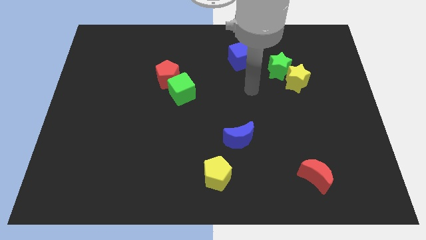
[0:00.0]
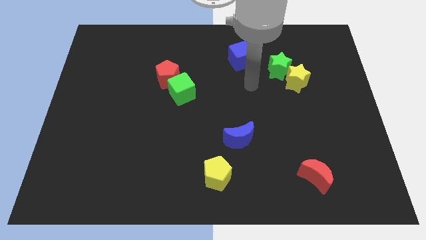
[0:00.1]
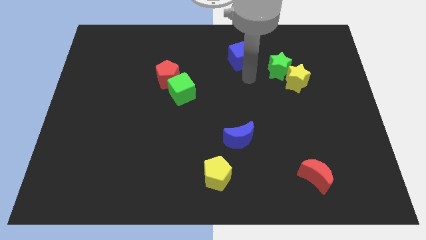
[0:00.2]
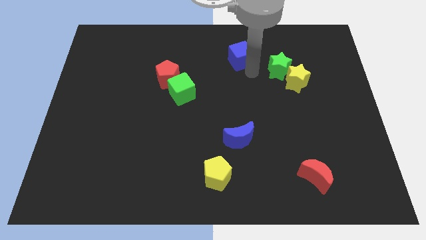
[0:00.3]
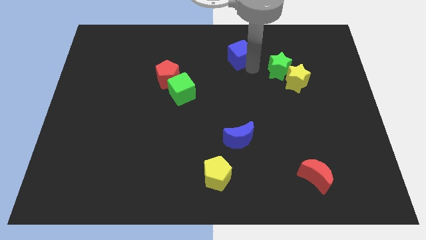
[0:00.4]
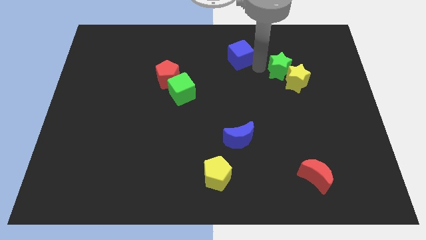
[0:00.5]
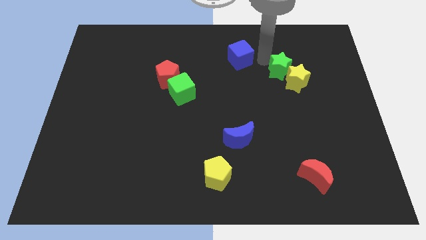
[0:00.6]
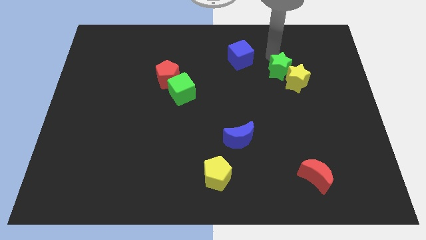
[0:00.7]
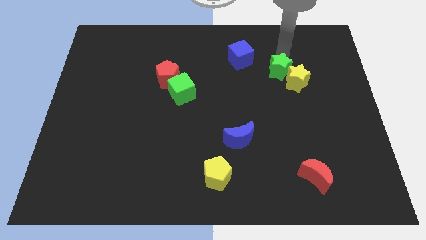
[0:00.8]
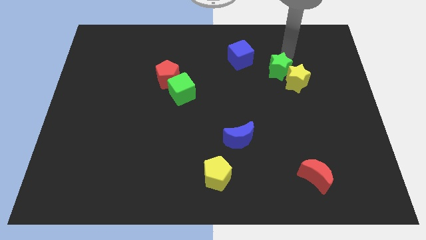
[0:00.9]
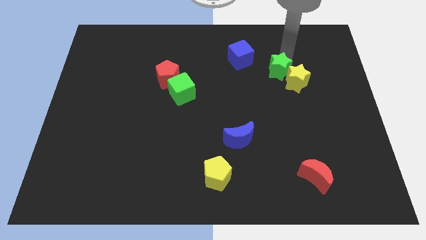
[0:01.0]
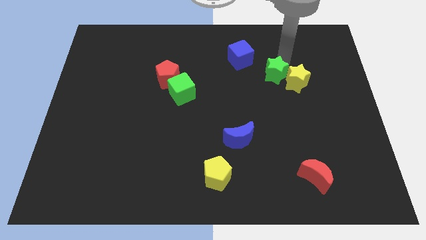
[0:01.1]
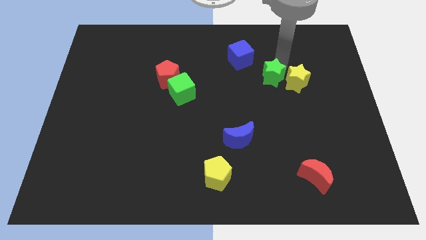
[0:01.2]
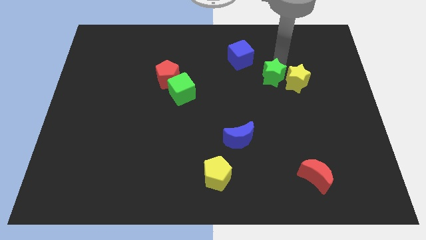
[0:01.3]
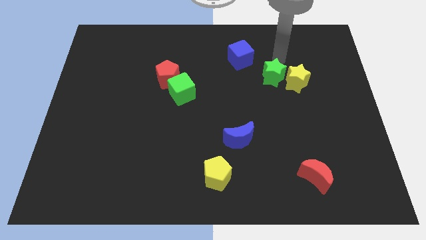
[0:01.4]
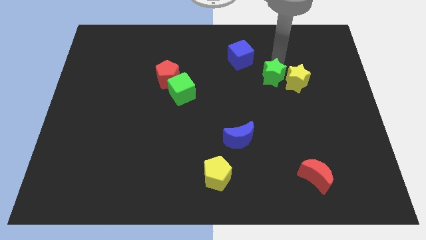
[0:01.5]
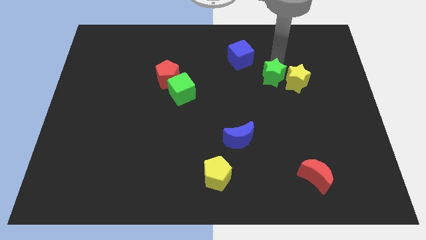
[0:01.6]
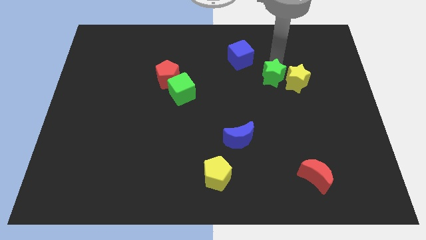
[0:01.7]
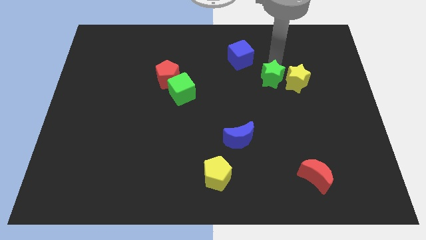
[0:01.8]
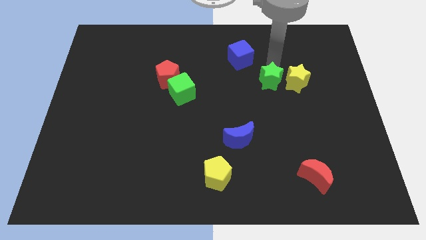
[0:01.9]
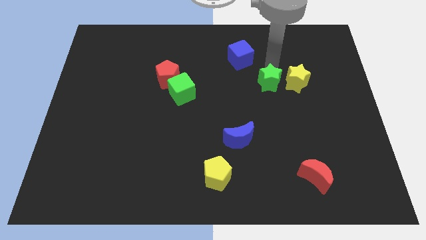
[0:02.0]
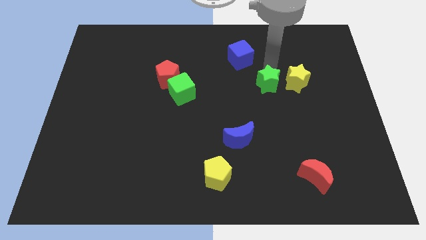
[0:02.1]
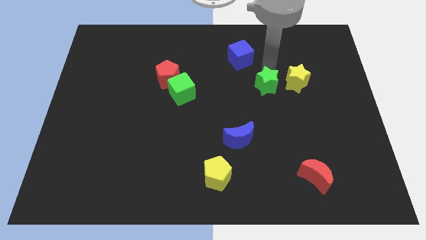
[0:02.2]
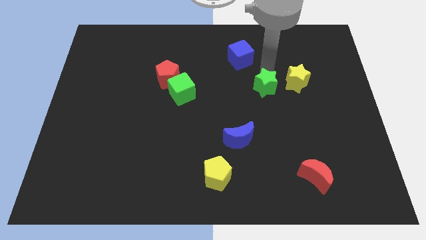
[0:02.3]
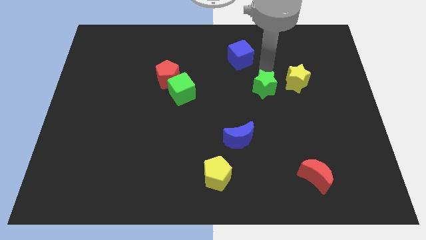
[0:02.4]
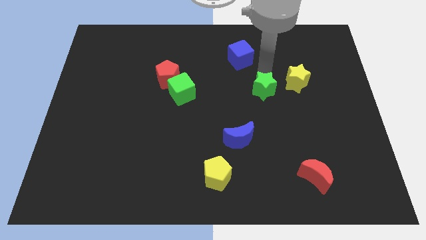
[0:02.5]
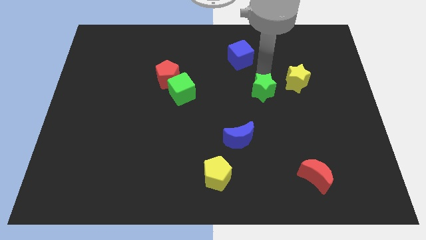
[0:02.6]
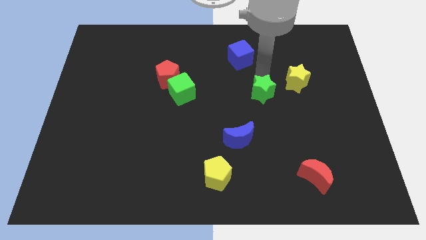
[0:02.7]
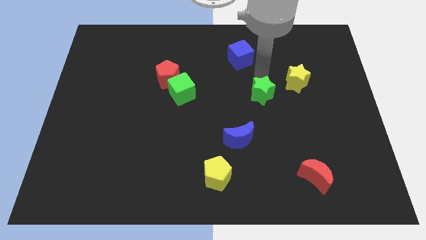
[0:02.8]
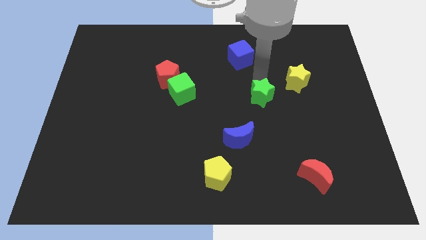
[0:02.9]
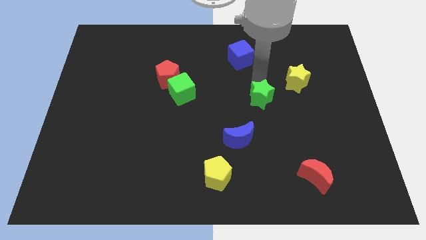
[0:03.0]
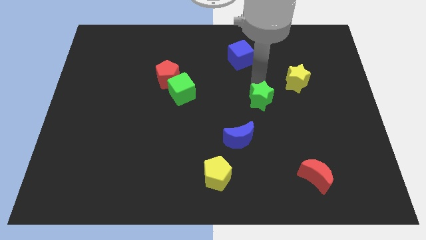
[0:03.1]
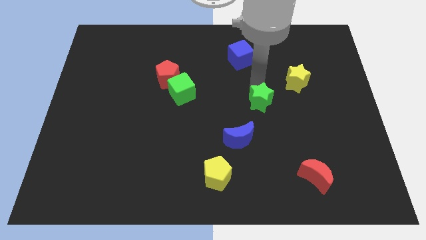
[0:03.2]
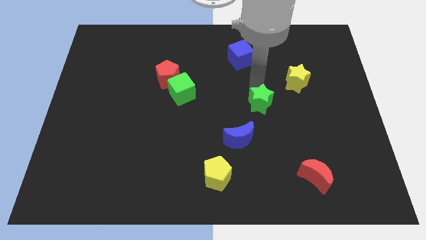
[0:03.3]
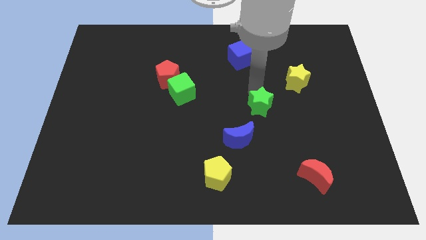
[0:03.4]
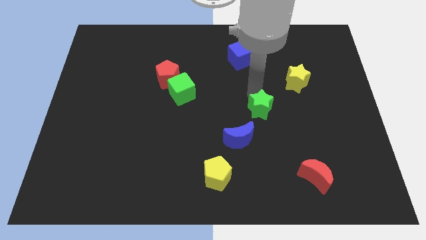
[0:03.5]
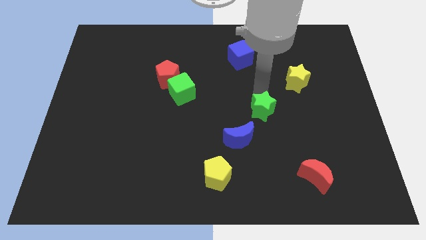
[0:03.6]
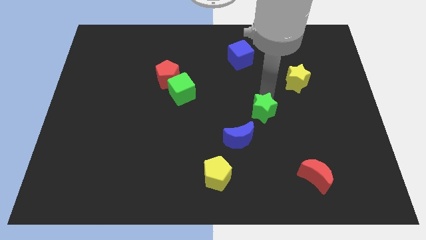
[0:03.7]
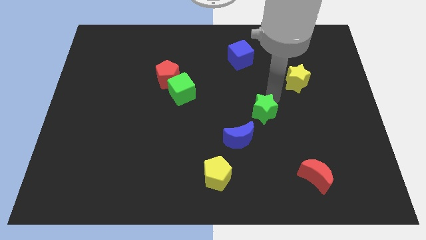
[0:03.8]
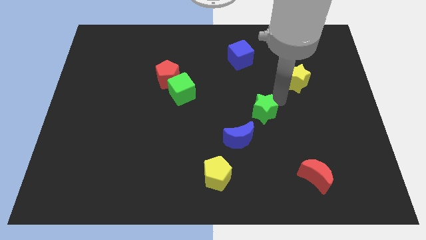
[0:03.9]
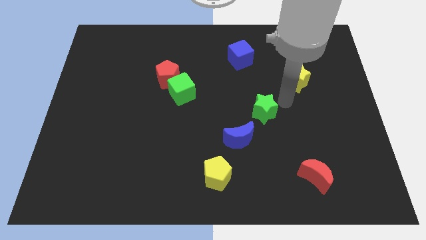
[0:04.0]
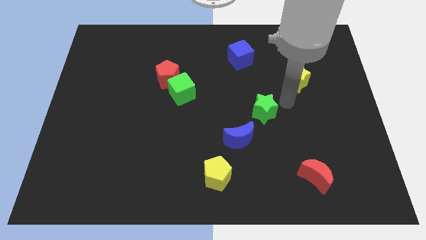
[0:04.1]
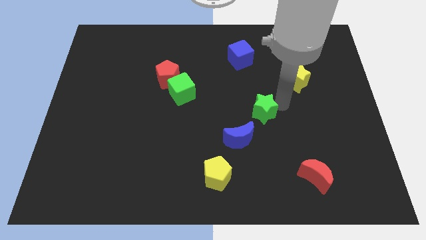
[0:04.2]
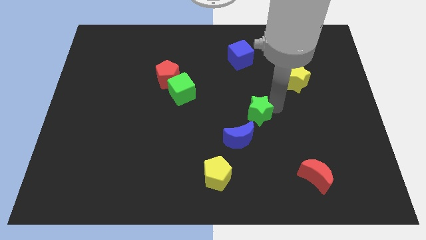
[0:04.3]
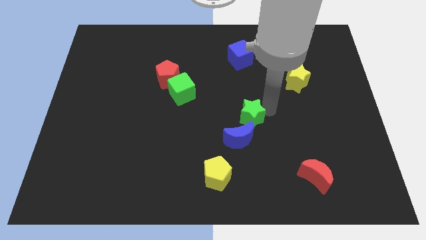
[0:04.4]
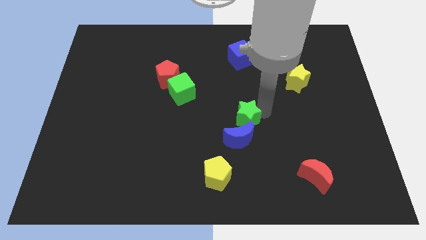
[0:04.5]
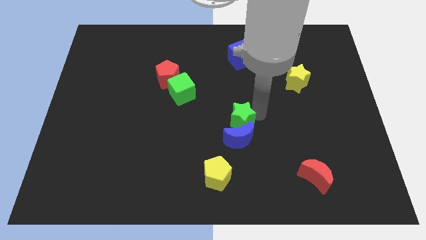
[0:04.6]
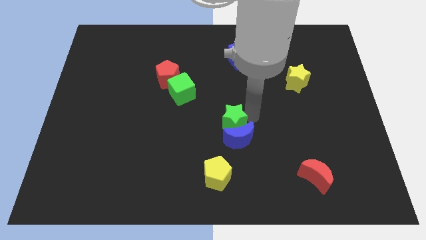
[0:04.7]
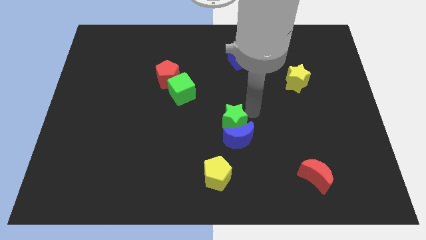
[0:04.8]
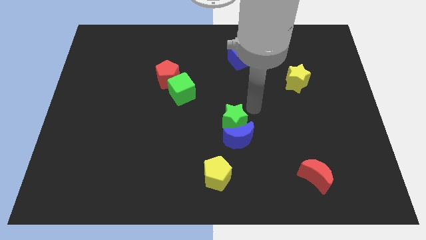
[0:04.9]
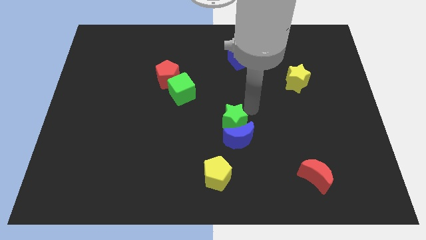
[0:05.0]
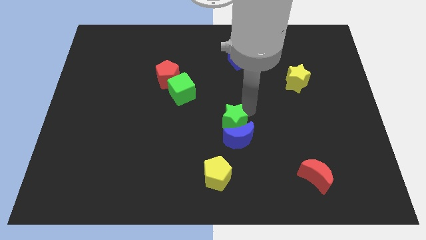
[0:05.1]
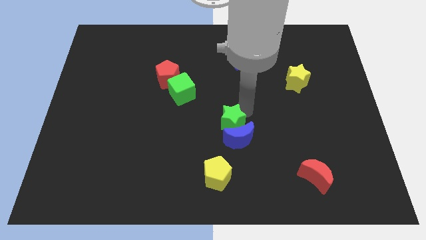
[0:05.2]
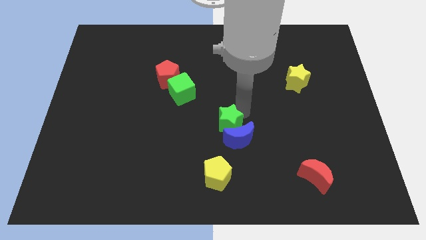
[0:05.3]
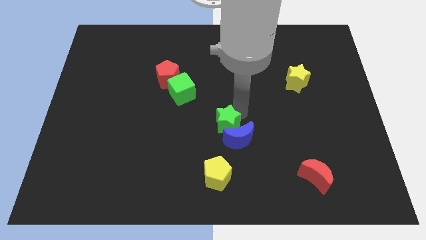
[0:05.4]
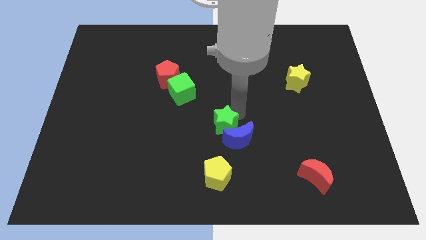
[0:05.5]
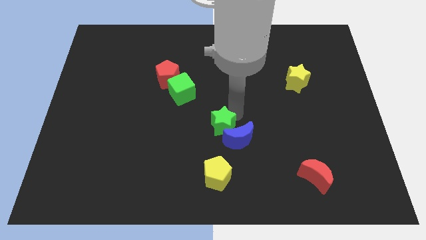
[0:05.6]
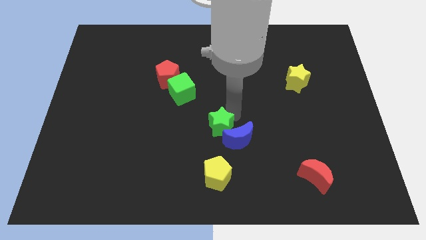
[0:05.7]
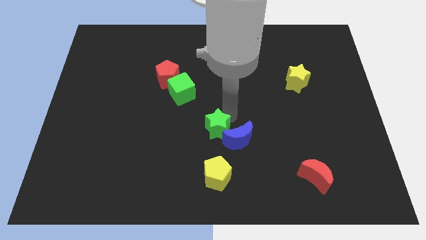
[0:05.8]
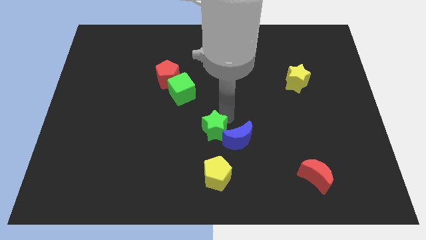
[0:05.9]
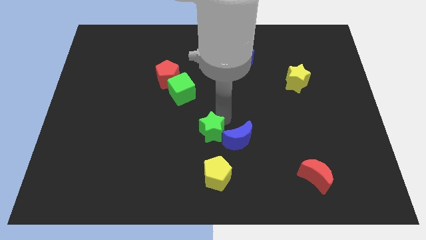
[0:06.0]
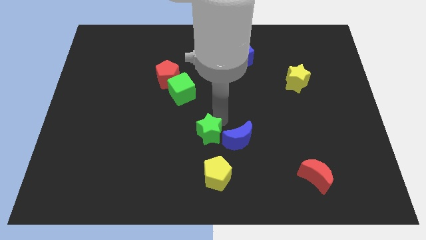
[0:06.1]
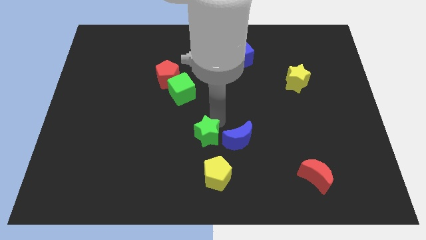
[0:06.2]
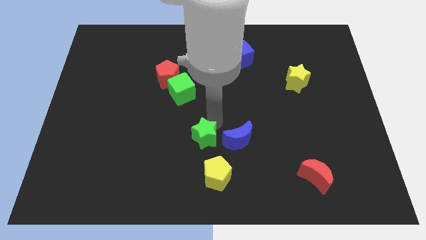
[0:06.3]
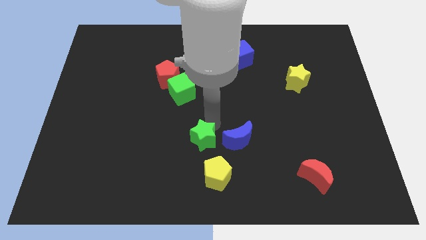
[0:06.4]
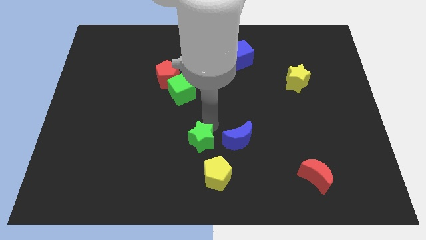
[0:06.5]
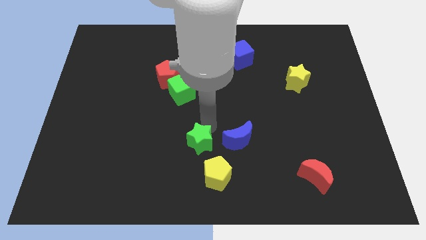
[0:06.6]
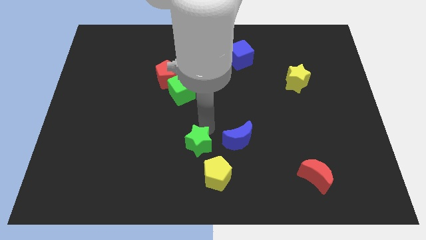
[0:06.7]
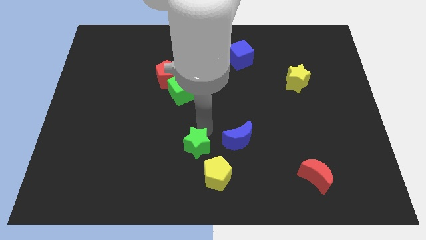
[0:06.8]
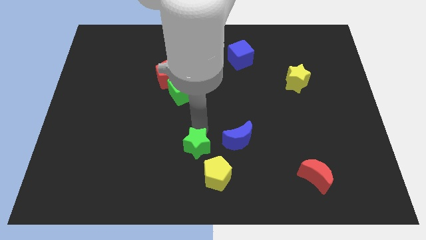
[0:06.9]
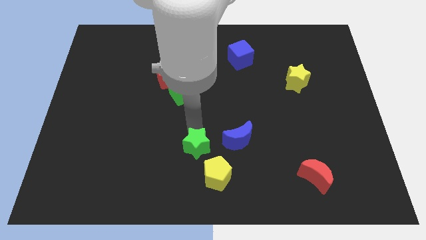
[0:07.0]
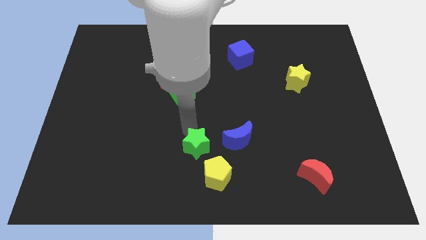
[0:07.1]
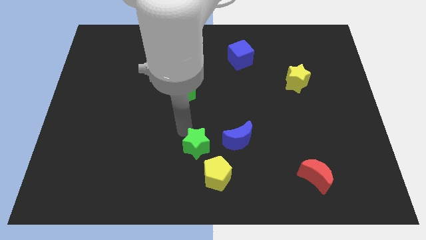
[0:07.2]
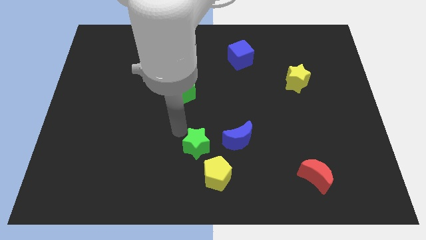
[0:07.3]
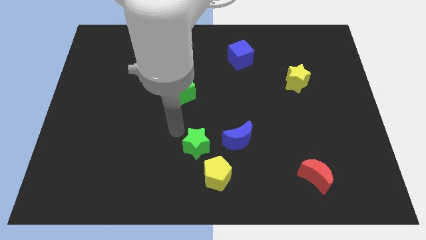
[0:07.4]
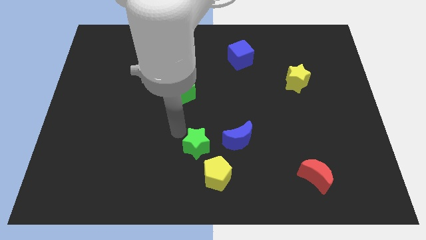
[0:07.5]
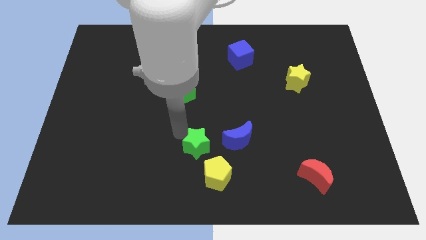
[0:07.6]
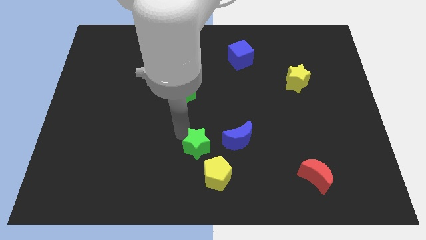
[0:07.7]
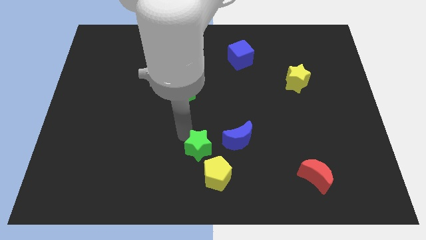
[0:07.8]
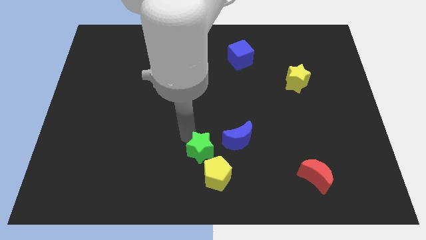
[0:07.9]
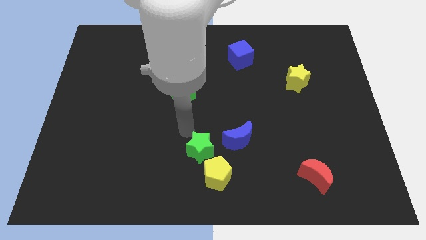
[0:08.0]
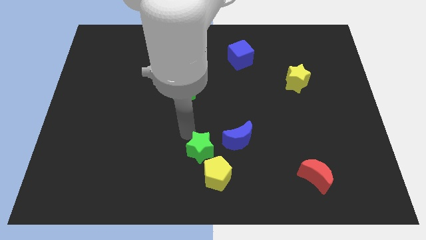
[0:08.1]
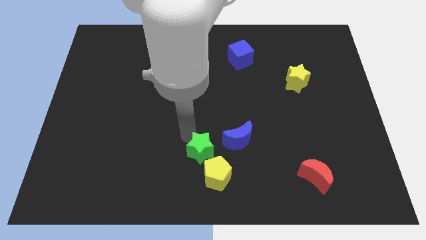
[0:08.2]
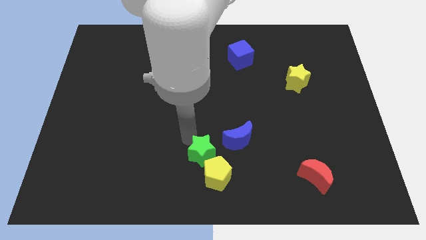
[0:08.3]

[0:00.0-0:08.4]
slide the green star to the yellow pentagon
